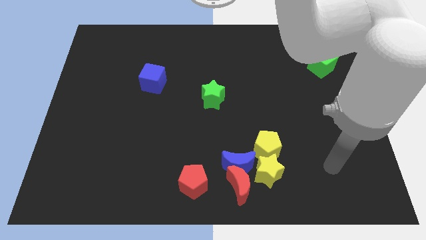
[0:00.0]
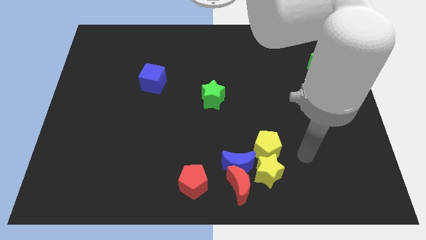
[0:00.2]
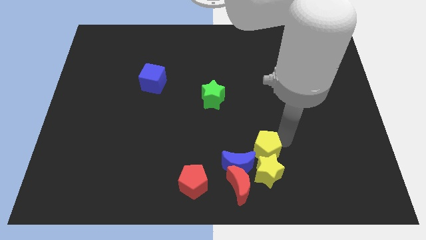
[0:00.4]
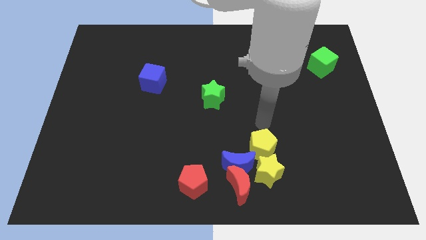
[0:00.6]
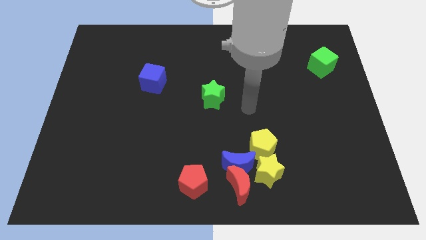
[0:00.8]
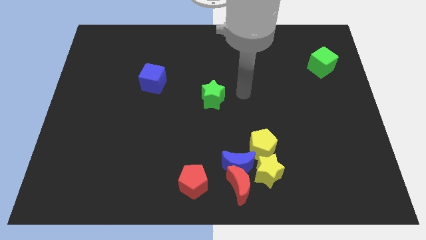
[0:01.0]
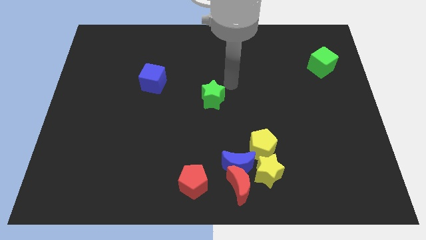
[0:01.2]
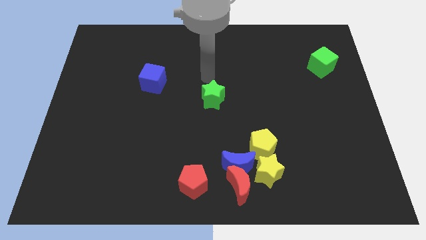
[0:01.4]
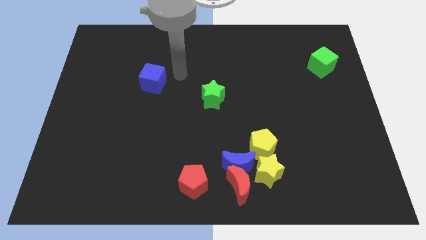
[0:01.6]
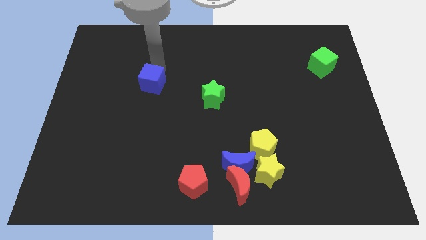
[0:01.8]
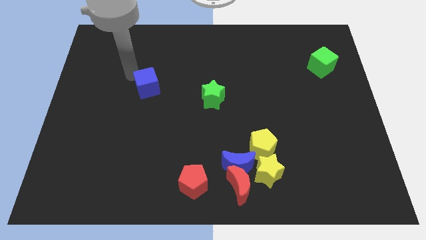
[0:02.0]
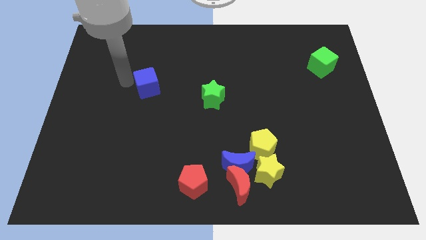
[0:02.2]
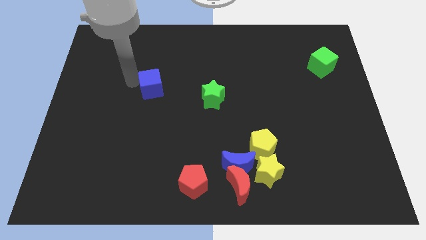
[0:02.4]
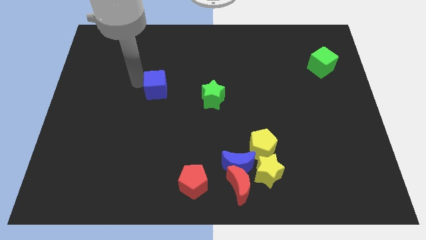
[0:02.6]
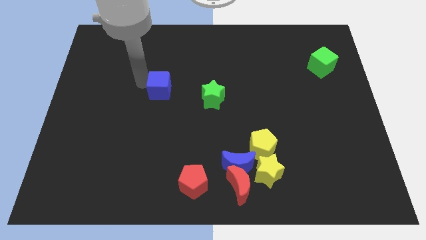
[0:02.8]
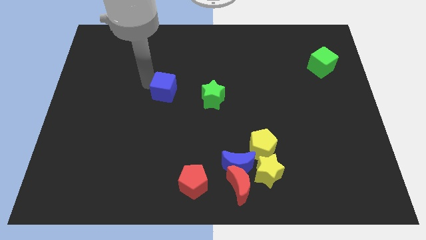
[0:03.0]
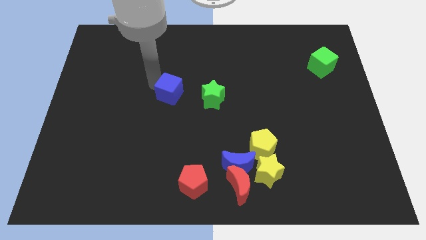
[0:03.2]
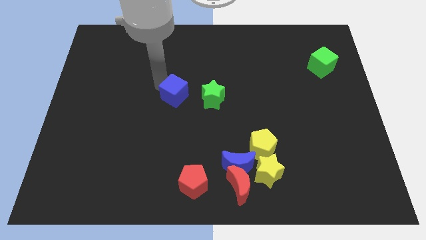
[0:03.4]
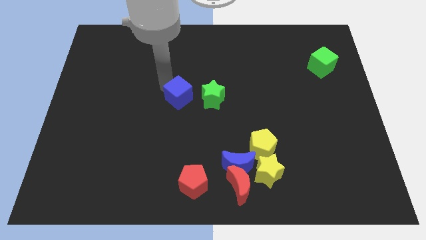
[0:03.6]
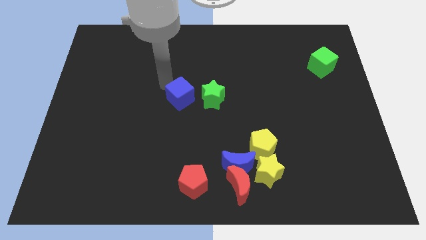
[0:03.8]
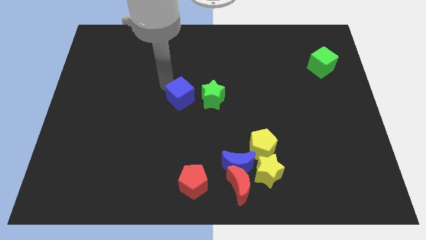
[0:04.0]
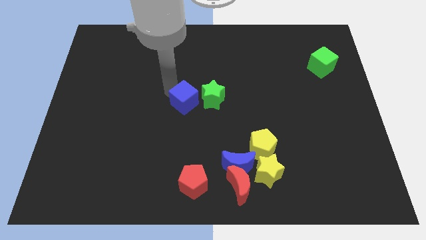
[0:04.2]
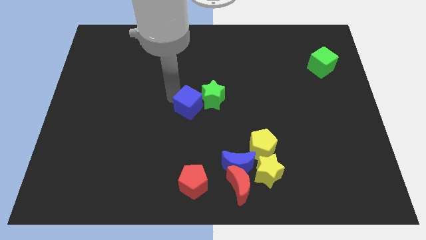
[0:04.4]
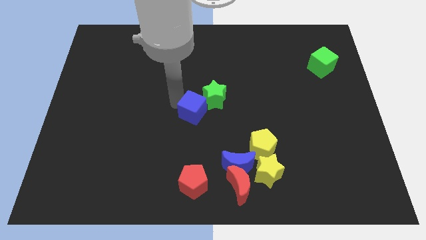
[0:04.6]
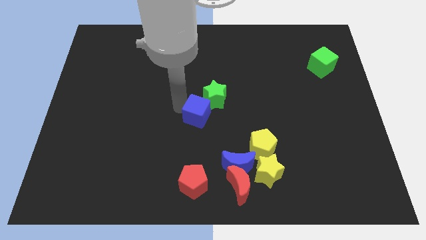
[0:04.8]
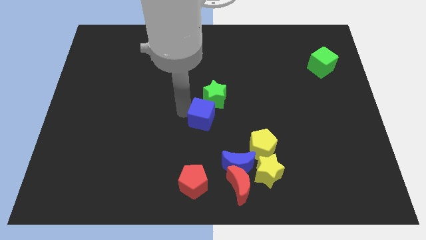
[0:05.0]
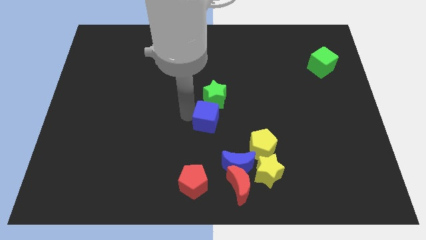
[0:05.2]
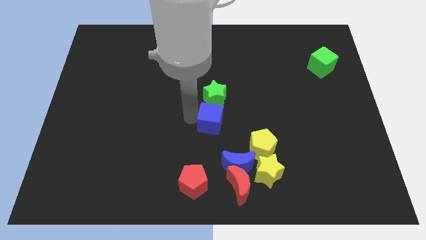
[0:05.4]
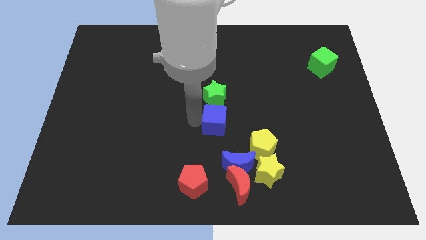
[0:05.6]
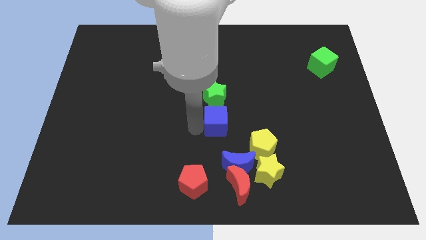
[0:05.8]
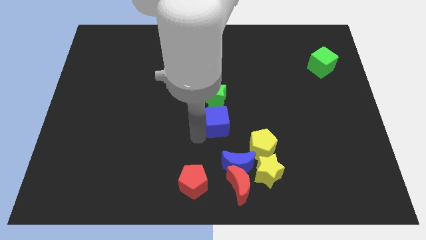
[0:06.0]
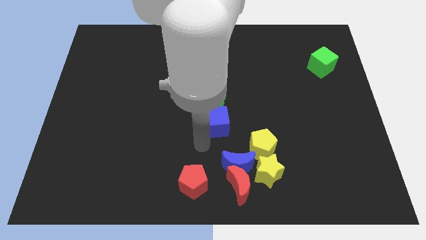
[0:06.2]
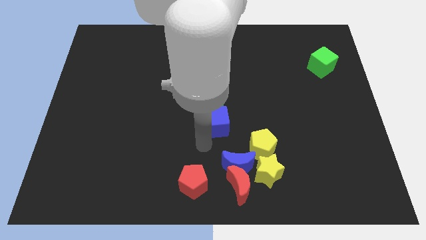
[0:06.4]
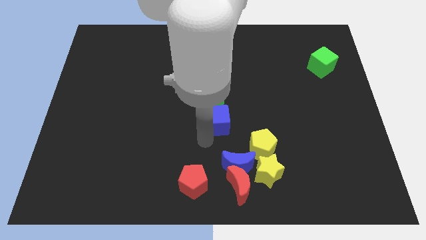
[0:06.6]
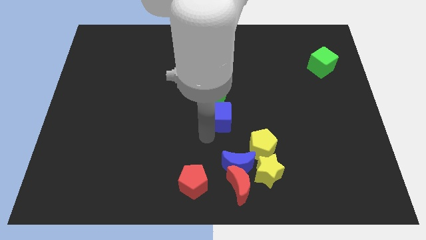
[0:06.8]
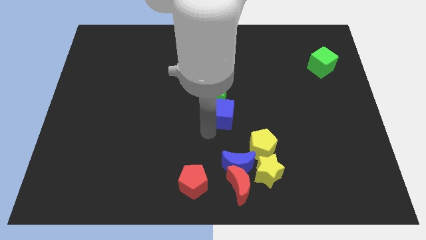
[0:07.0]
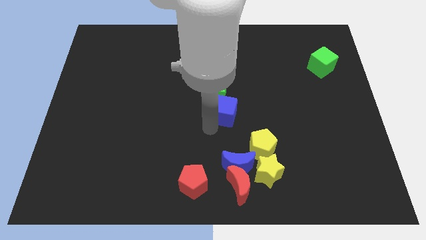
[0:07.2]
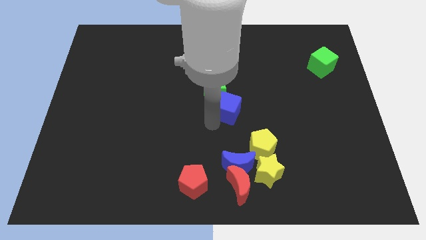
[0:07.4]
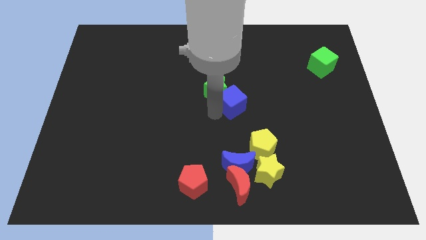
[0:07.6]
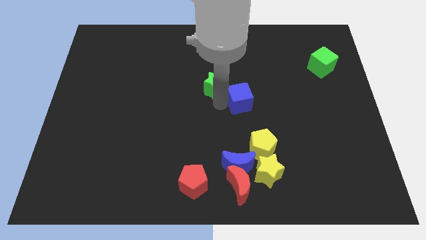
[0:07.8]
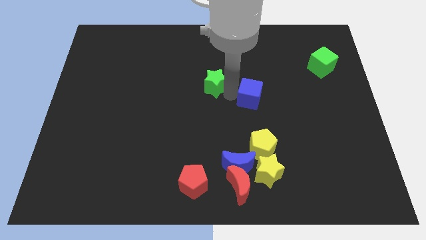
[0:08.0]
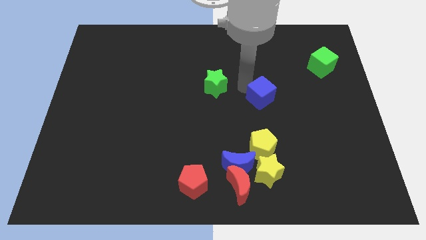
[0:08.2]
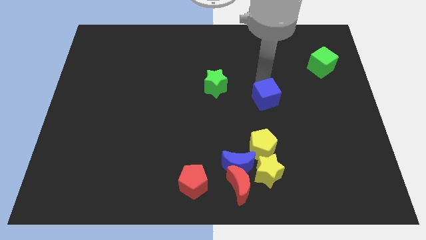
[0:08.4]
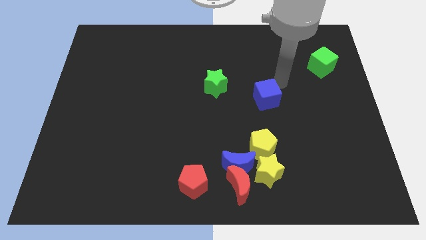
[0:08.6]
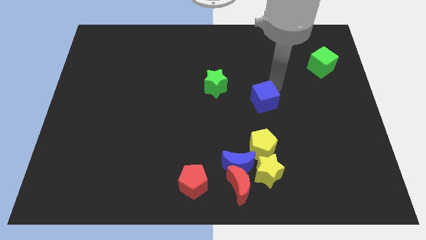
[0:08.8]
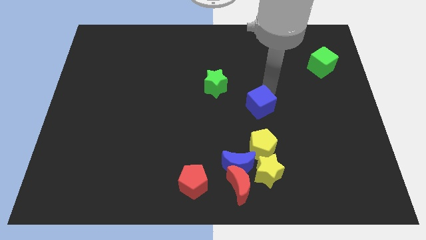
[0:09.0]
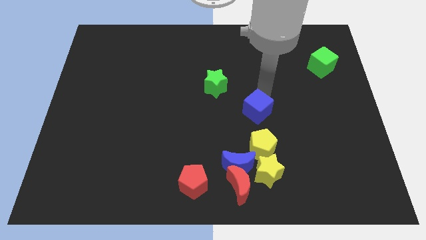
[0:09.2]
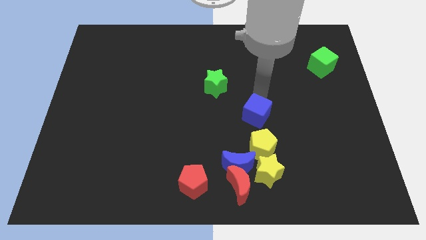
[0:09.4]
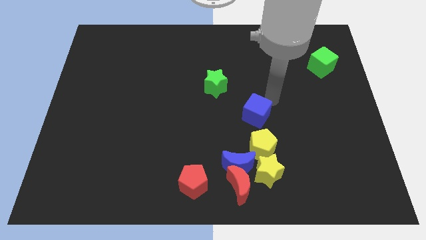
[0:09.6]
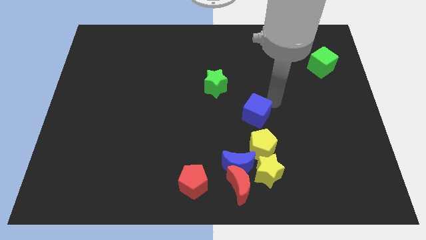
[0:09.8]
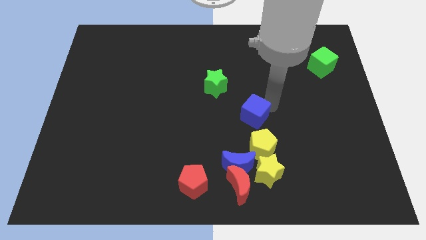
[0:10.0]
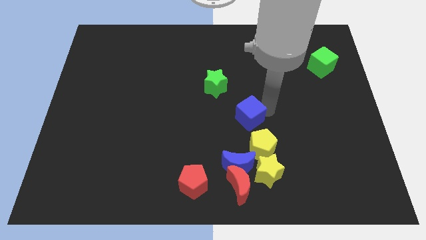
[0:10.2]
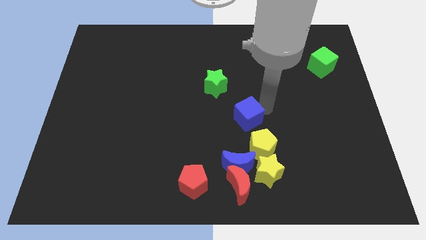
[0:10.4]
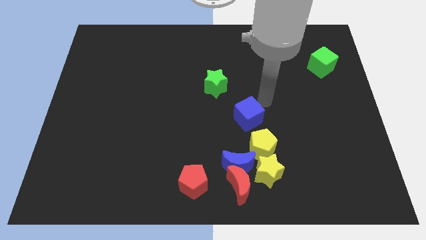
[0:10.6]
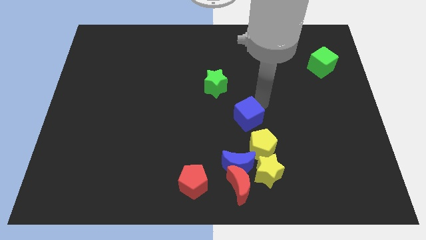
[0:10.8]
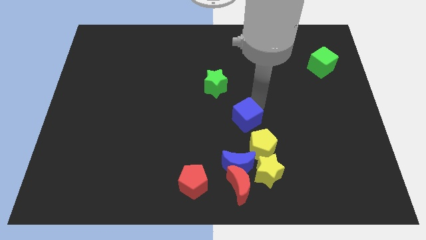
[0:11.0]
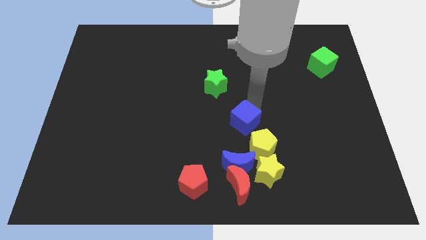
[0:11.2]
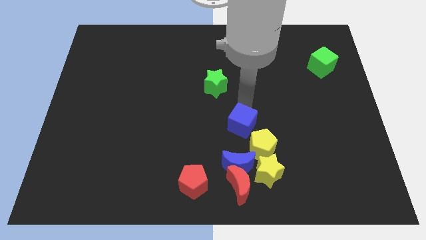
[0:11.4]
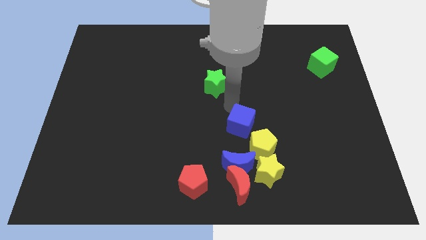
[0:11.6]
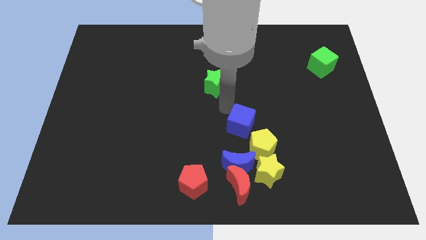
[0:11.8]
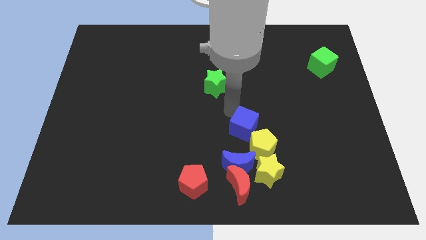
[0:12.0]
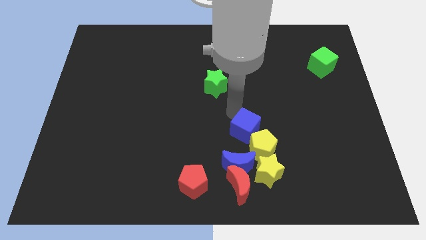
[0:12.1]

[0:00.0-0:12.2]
put the blue cube close to the yellow pentagon

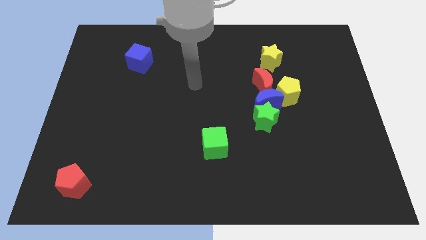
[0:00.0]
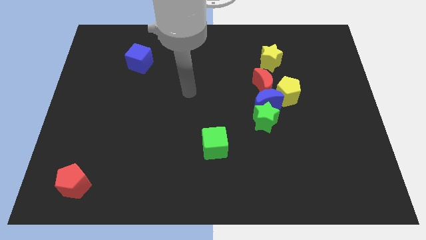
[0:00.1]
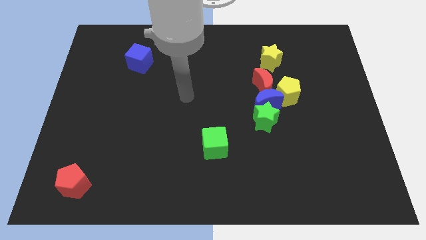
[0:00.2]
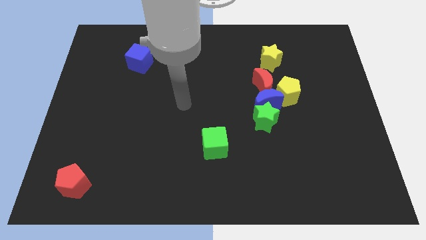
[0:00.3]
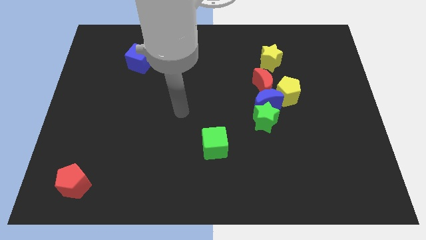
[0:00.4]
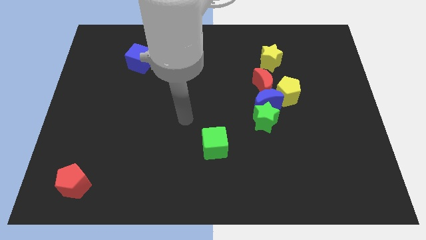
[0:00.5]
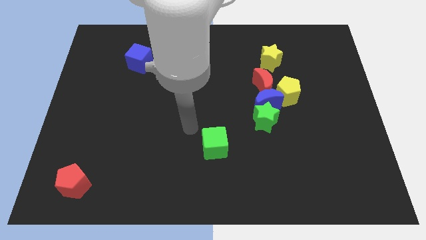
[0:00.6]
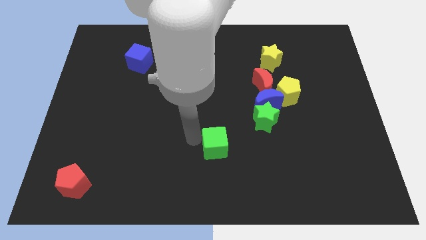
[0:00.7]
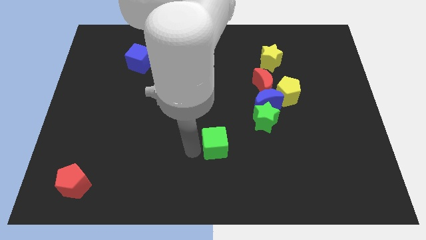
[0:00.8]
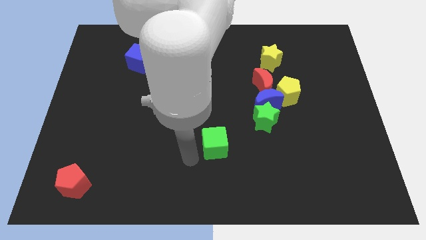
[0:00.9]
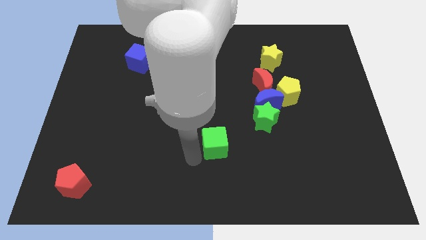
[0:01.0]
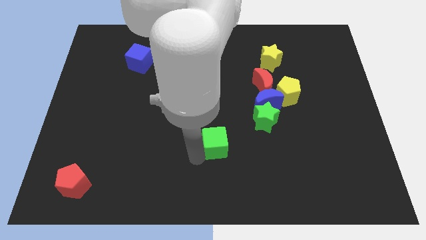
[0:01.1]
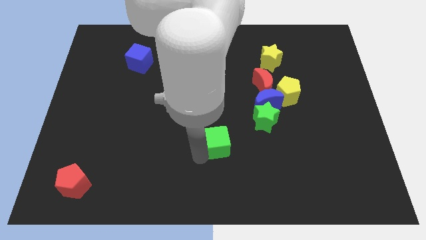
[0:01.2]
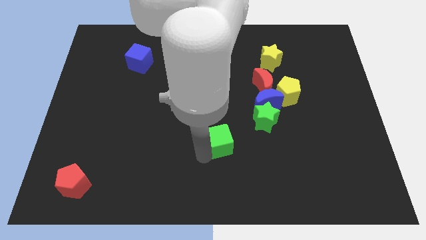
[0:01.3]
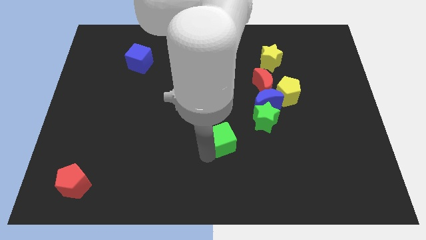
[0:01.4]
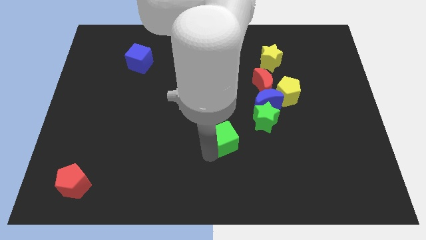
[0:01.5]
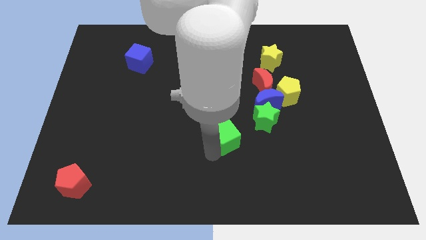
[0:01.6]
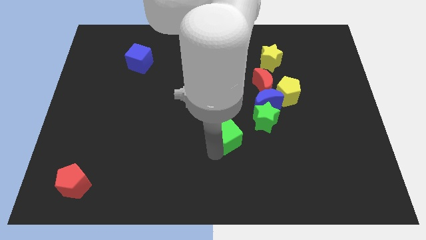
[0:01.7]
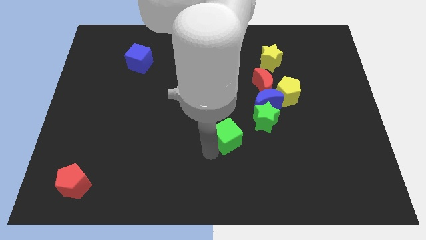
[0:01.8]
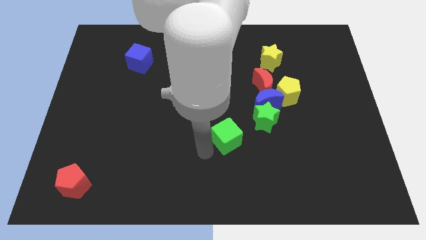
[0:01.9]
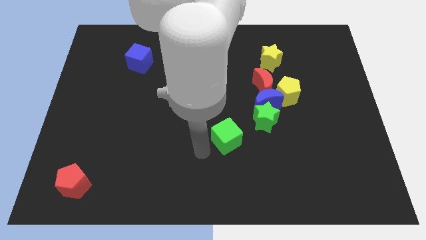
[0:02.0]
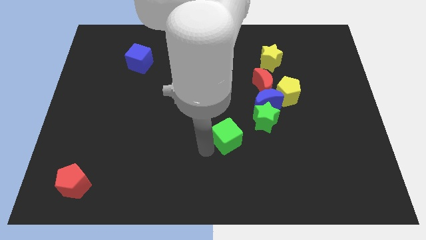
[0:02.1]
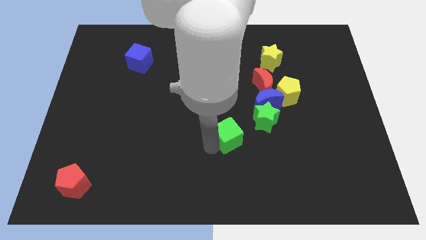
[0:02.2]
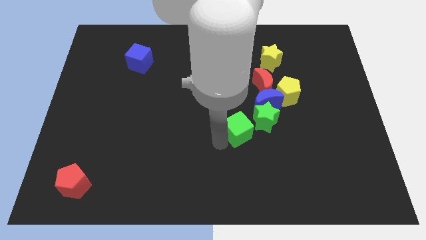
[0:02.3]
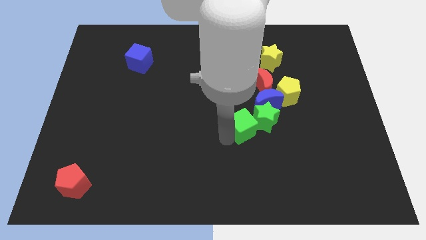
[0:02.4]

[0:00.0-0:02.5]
slide the green cube towards the green star
